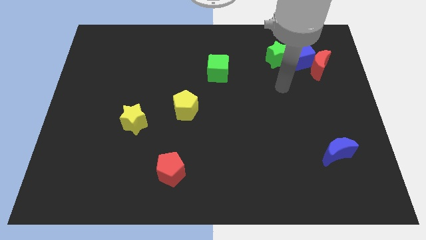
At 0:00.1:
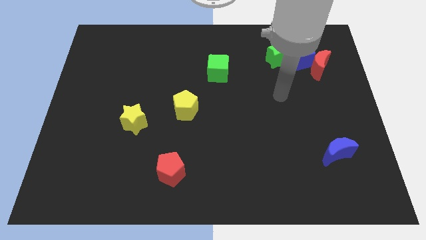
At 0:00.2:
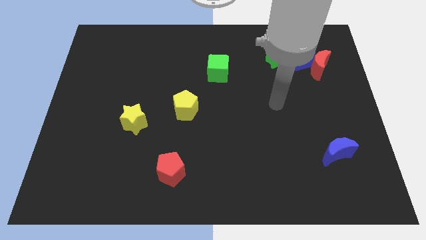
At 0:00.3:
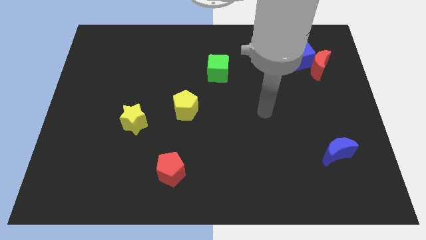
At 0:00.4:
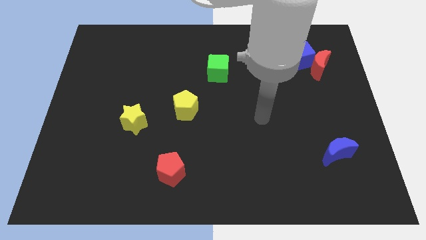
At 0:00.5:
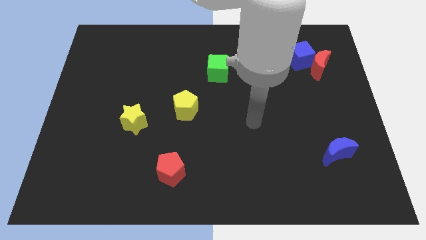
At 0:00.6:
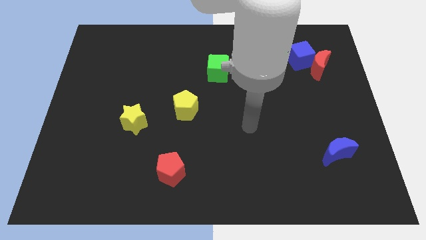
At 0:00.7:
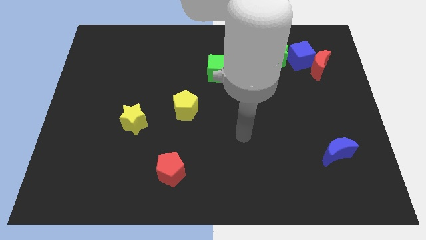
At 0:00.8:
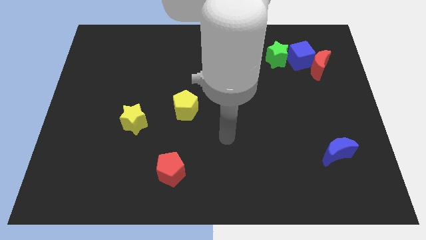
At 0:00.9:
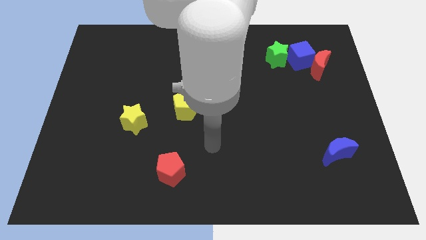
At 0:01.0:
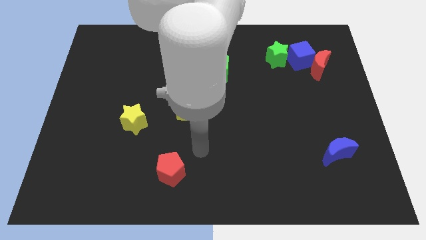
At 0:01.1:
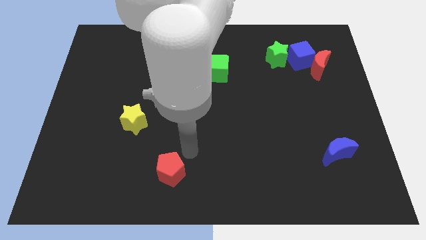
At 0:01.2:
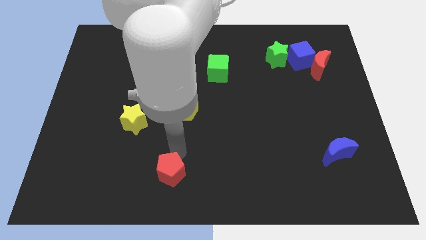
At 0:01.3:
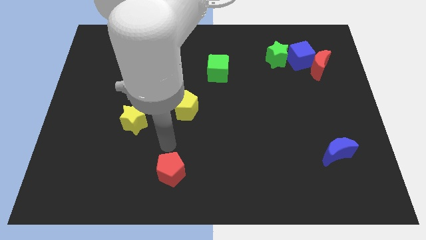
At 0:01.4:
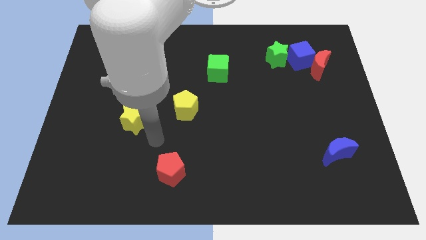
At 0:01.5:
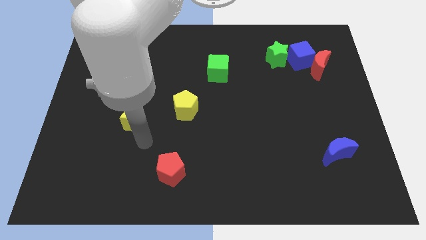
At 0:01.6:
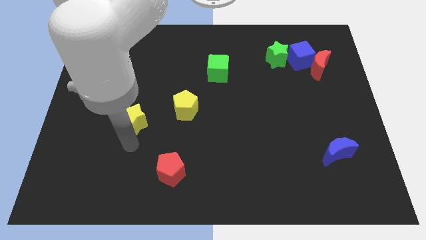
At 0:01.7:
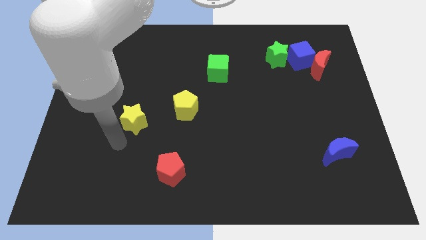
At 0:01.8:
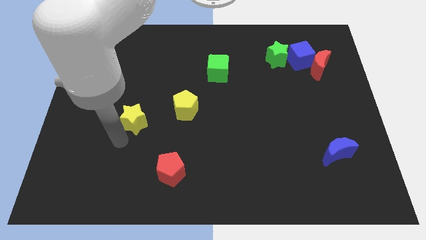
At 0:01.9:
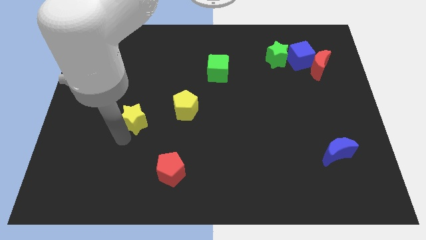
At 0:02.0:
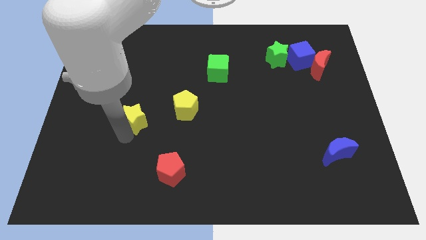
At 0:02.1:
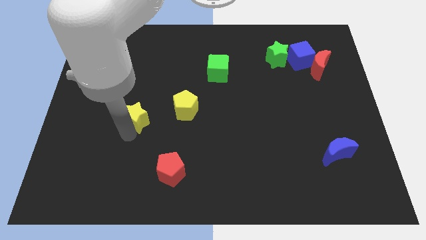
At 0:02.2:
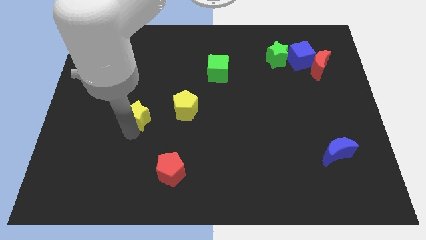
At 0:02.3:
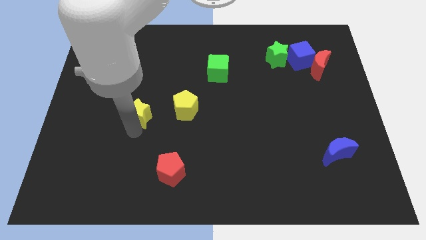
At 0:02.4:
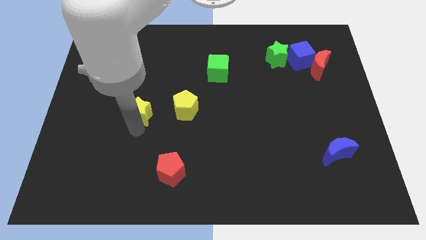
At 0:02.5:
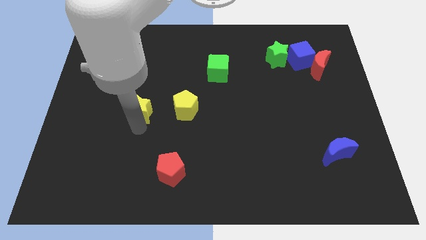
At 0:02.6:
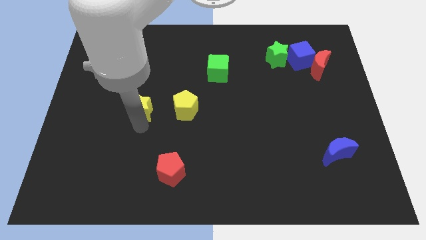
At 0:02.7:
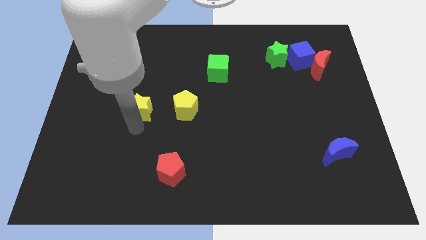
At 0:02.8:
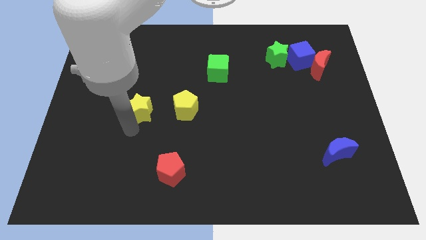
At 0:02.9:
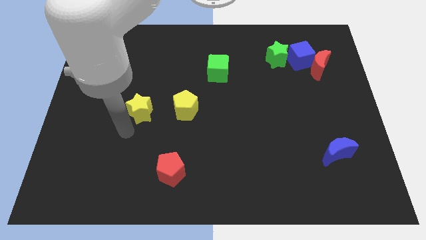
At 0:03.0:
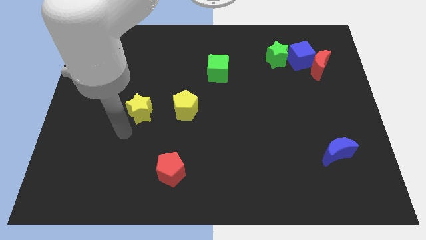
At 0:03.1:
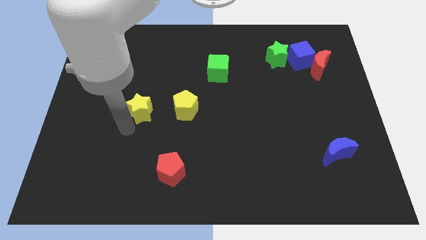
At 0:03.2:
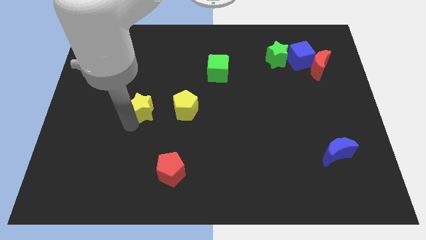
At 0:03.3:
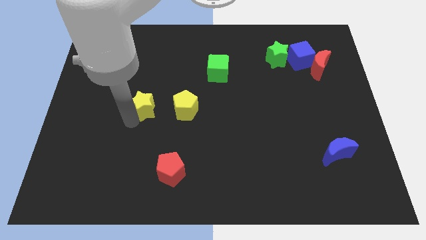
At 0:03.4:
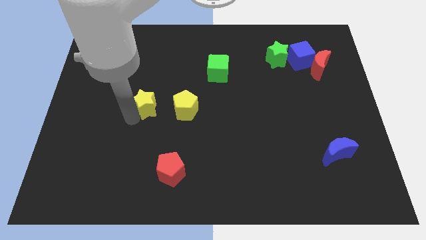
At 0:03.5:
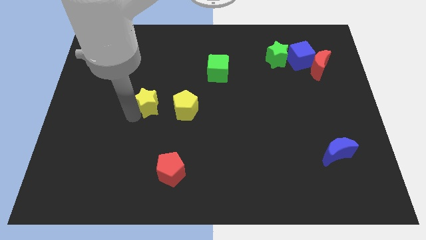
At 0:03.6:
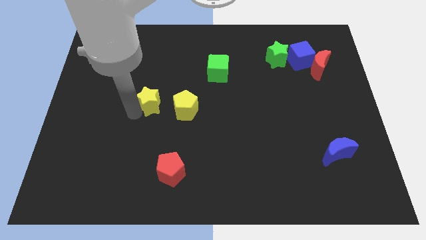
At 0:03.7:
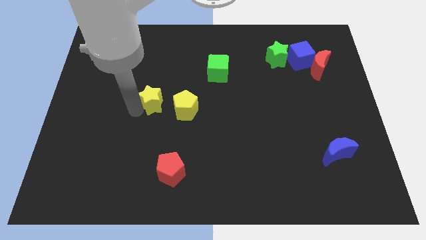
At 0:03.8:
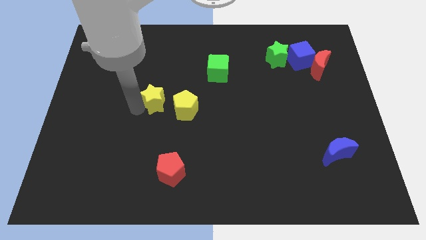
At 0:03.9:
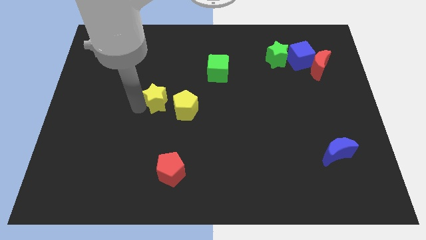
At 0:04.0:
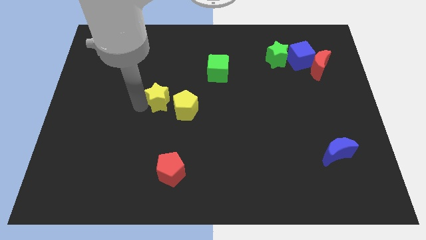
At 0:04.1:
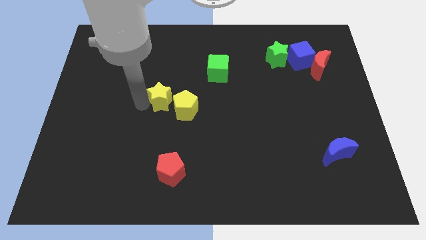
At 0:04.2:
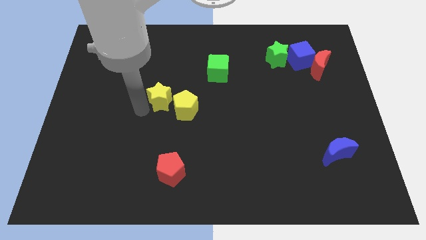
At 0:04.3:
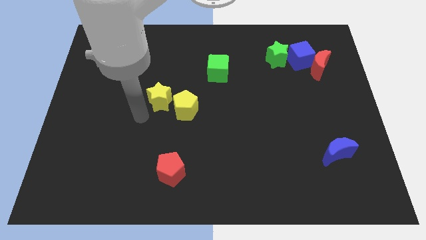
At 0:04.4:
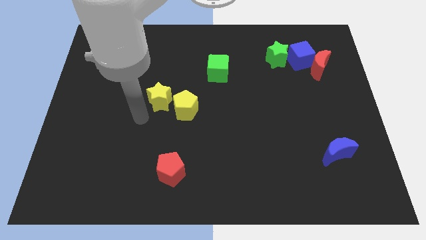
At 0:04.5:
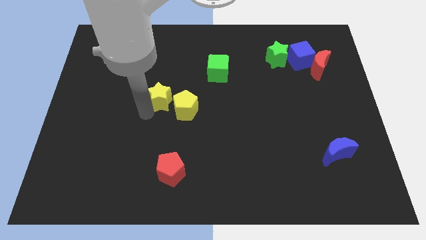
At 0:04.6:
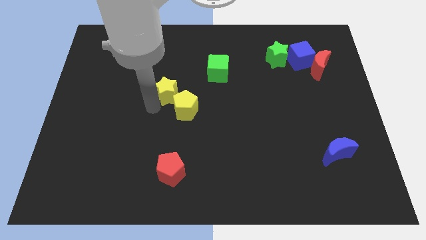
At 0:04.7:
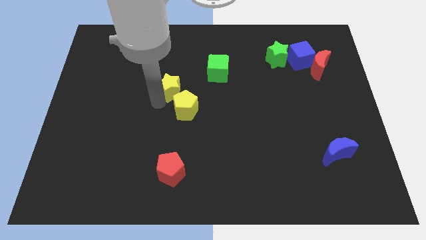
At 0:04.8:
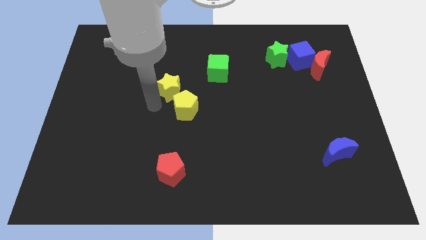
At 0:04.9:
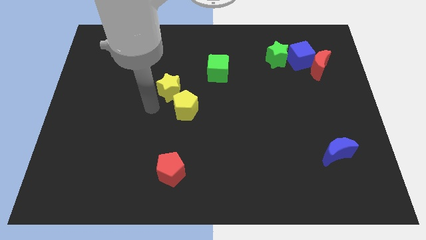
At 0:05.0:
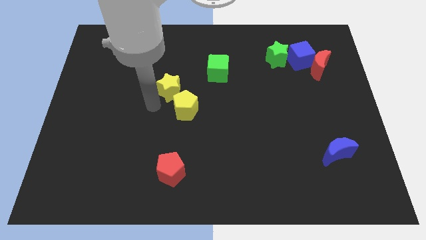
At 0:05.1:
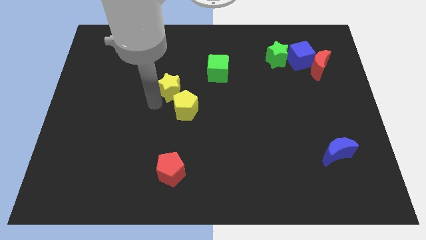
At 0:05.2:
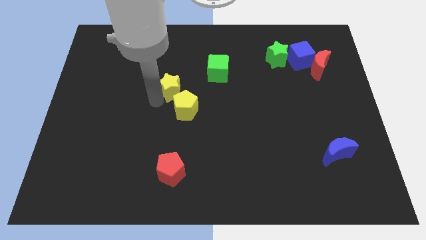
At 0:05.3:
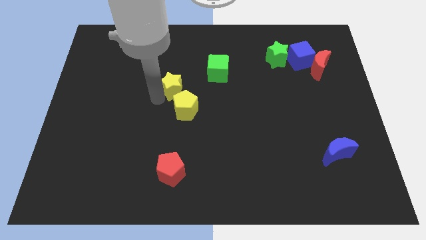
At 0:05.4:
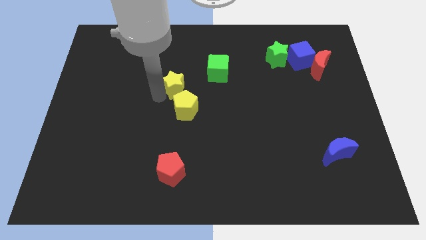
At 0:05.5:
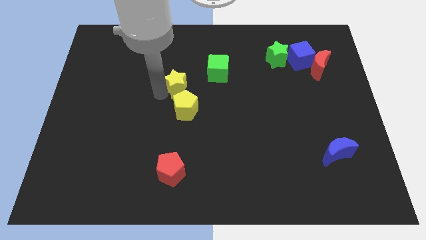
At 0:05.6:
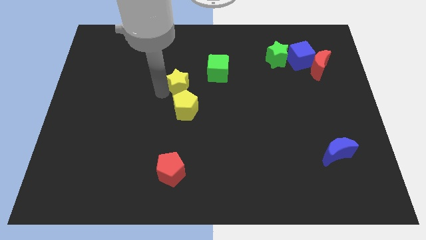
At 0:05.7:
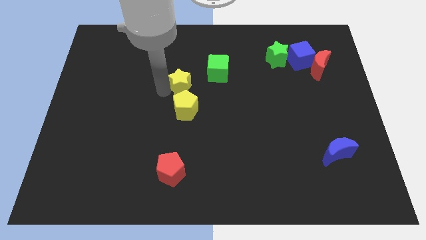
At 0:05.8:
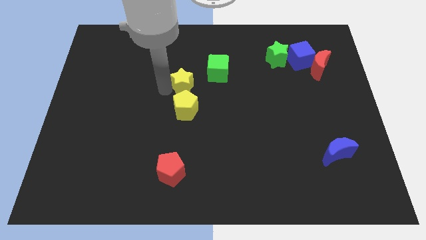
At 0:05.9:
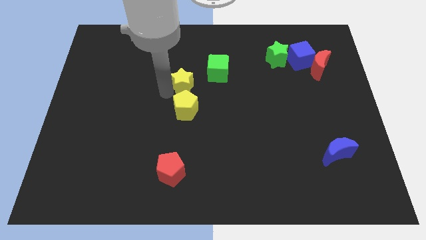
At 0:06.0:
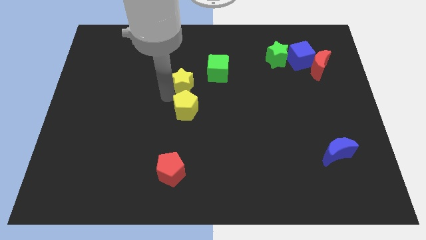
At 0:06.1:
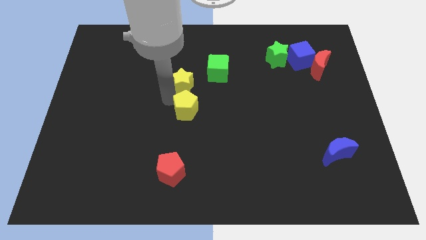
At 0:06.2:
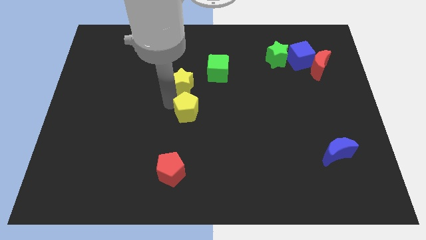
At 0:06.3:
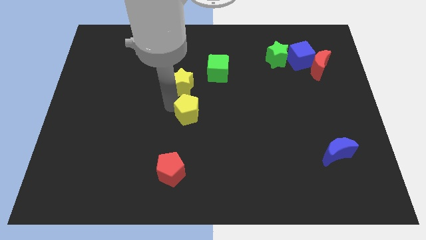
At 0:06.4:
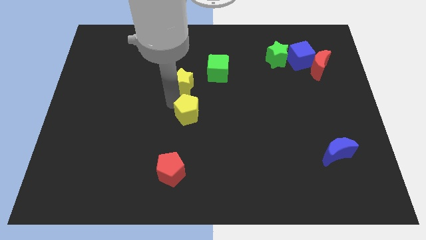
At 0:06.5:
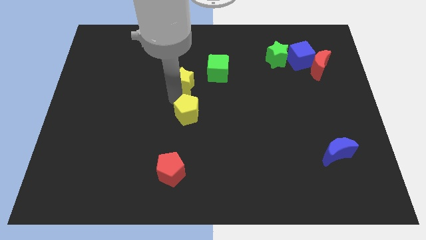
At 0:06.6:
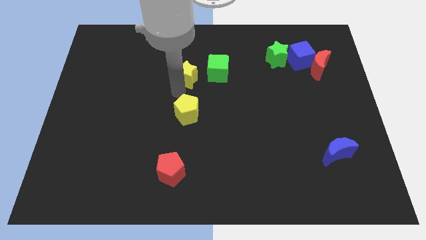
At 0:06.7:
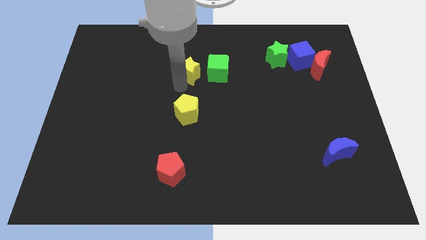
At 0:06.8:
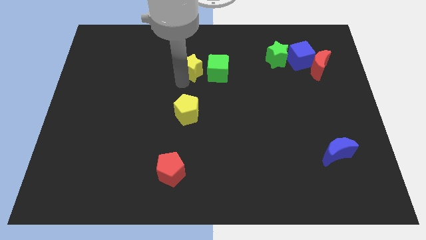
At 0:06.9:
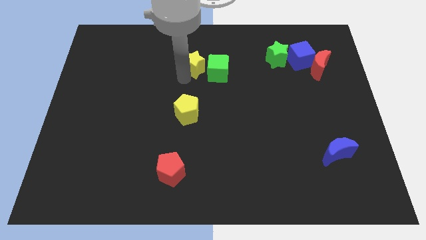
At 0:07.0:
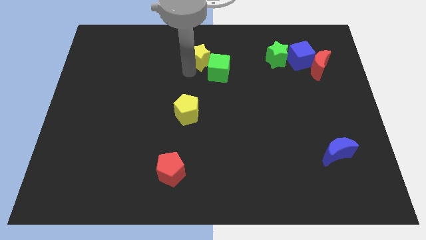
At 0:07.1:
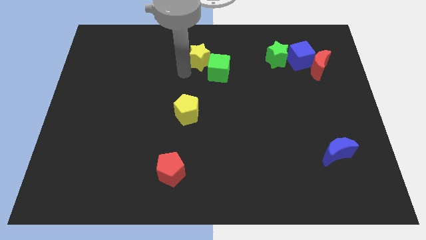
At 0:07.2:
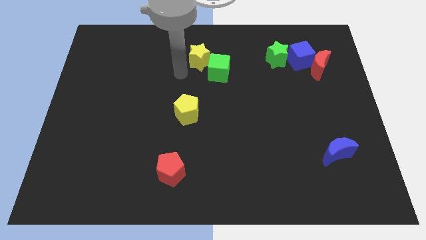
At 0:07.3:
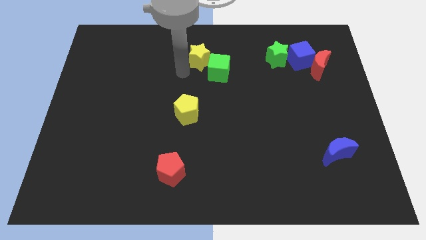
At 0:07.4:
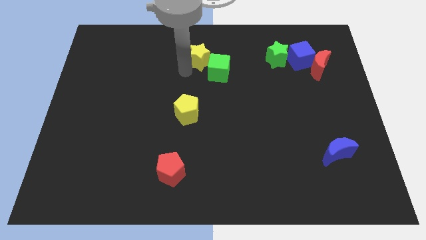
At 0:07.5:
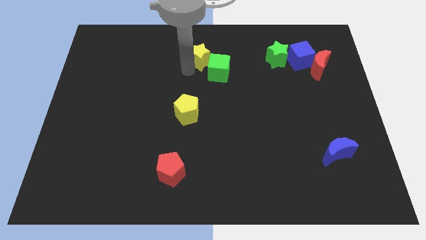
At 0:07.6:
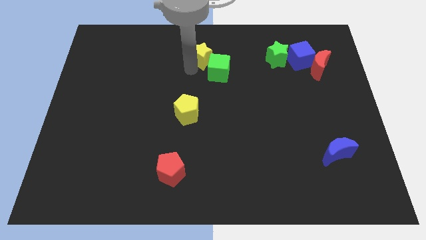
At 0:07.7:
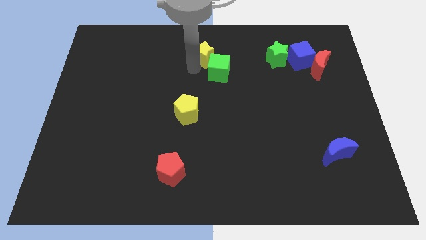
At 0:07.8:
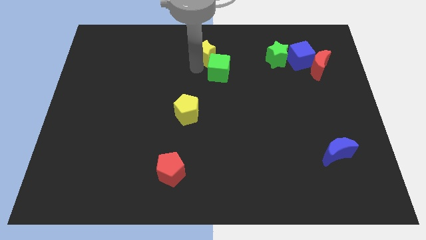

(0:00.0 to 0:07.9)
move the yellow star to the top
